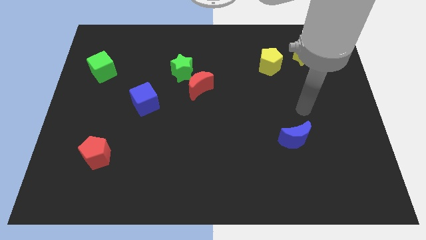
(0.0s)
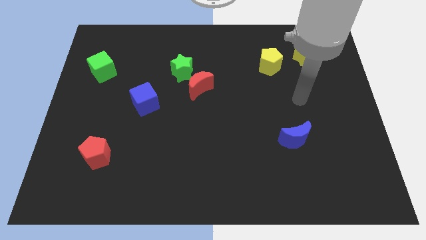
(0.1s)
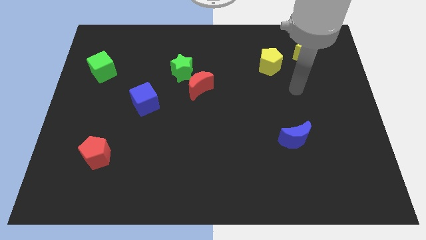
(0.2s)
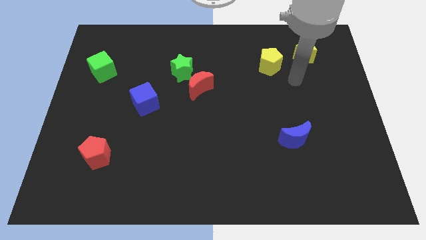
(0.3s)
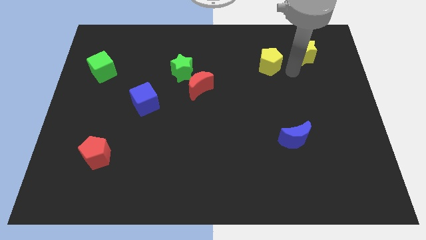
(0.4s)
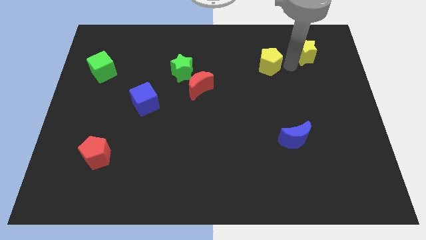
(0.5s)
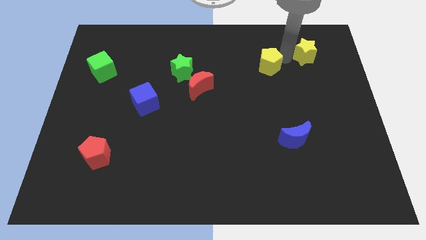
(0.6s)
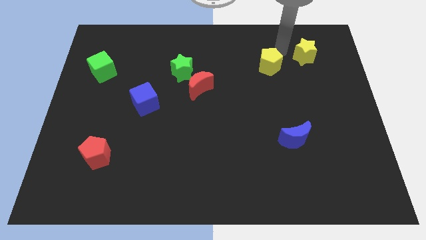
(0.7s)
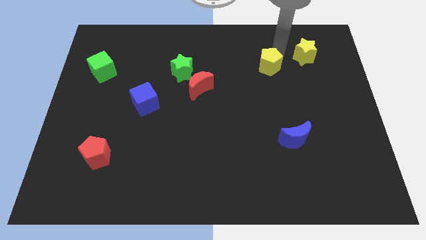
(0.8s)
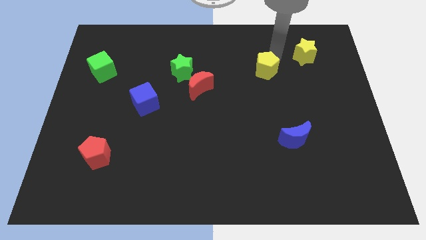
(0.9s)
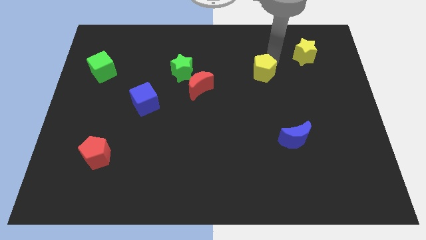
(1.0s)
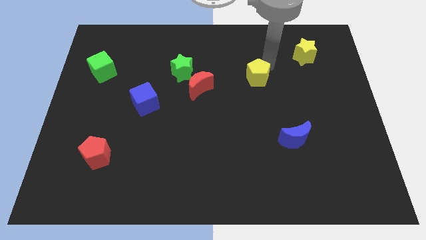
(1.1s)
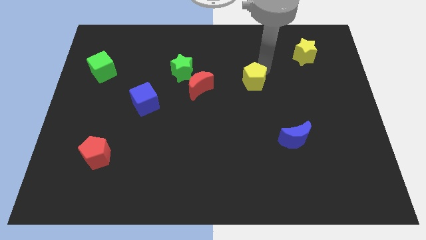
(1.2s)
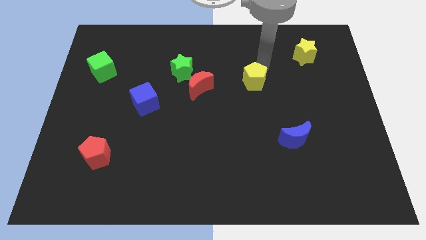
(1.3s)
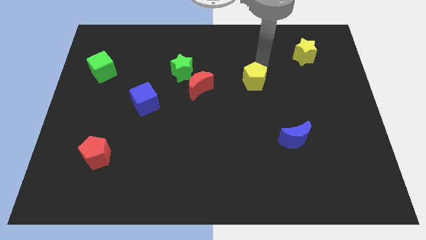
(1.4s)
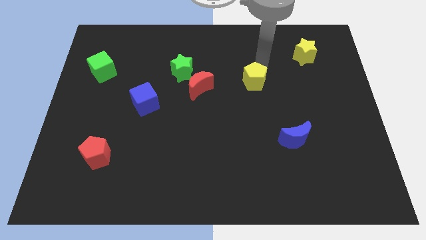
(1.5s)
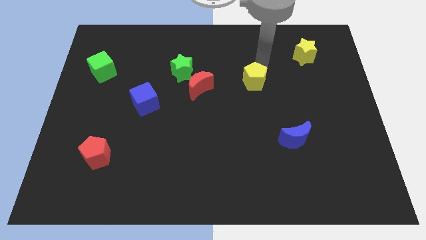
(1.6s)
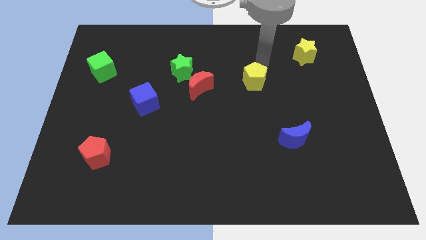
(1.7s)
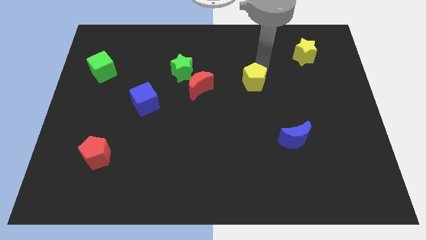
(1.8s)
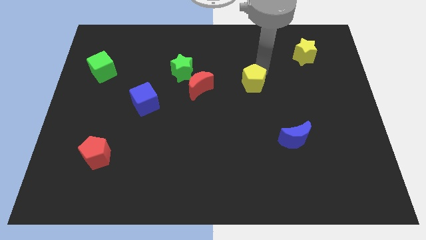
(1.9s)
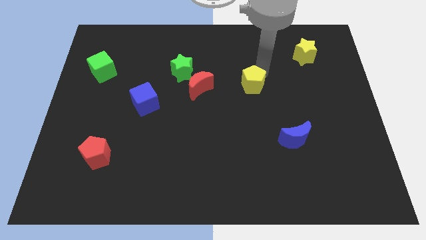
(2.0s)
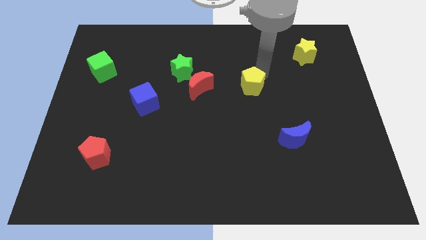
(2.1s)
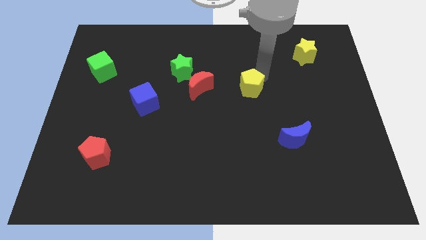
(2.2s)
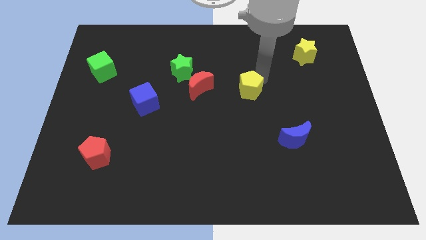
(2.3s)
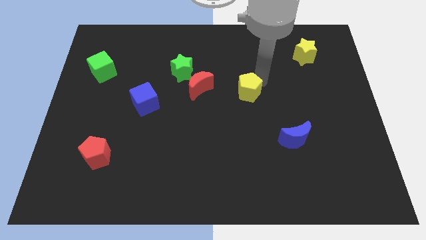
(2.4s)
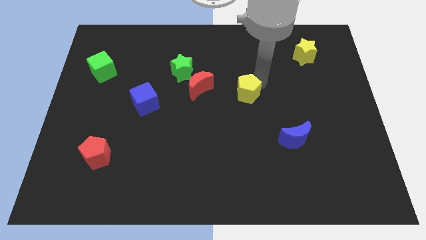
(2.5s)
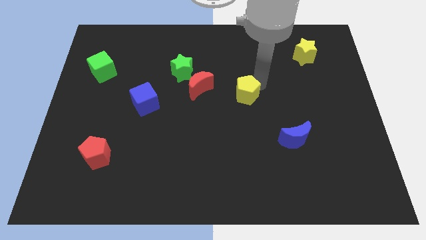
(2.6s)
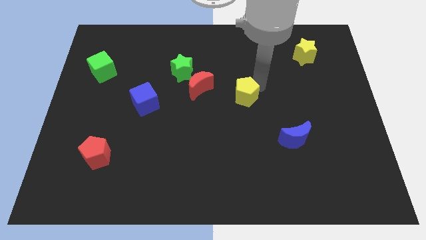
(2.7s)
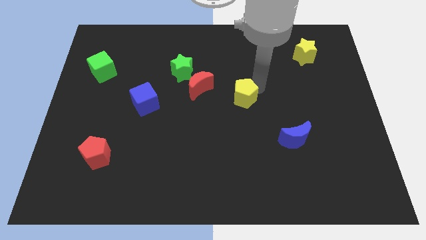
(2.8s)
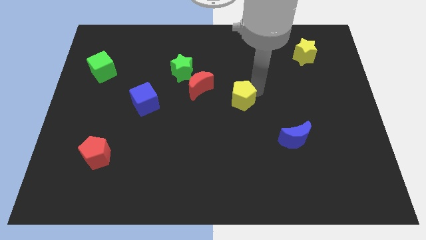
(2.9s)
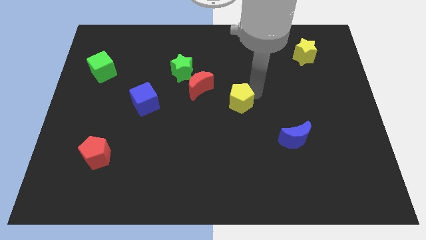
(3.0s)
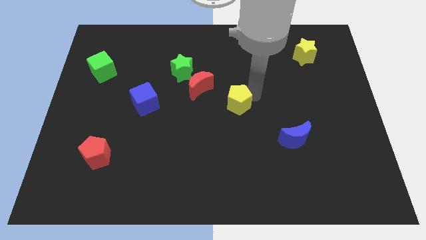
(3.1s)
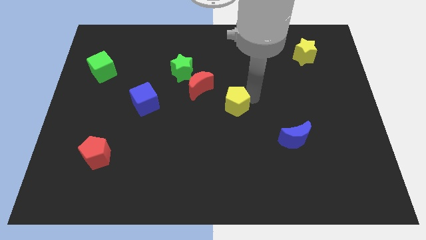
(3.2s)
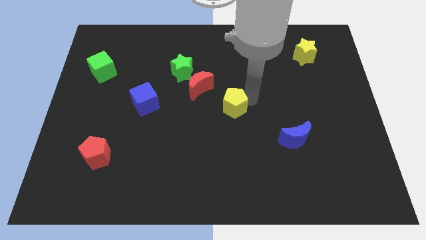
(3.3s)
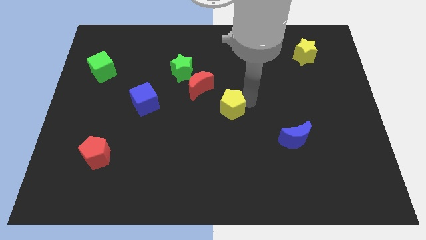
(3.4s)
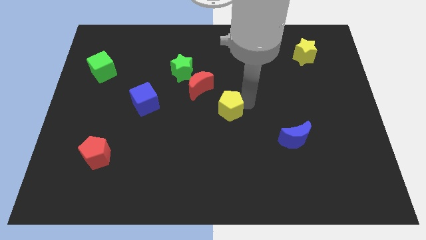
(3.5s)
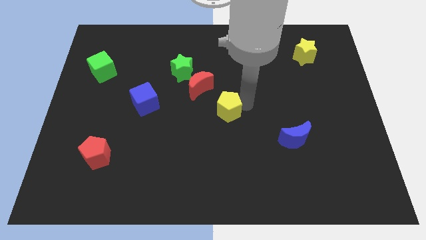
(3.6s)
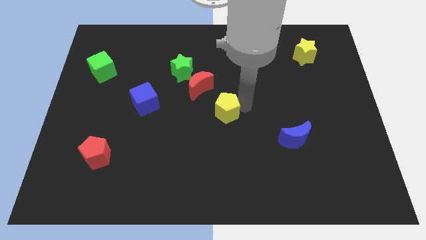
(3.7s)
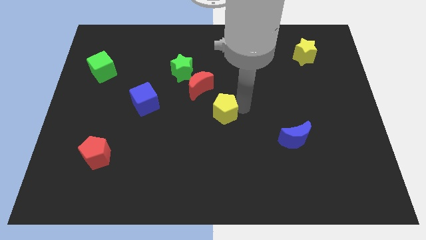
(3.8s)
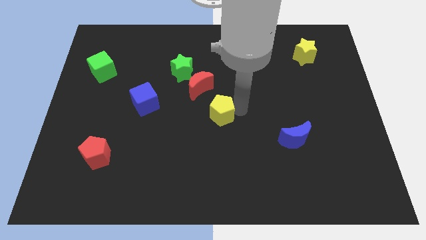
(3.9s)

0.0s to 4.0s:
push the yellow pentagon down and left diagonally

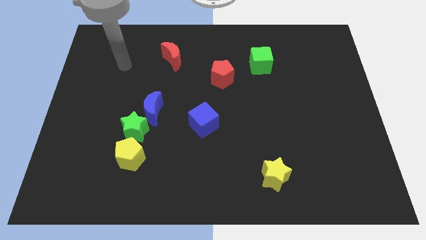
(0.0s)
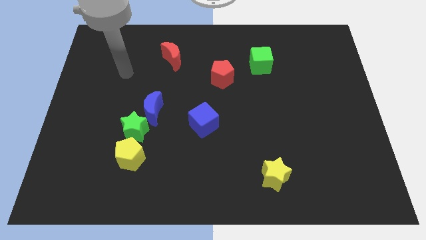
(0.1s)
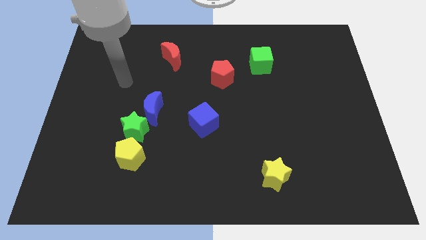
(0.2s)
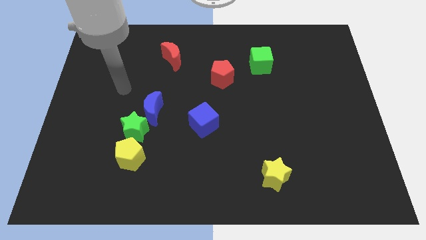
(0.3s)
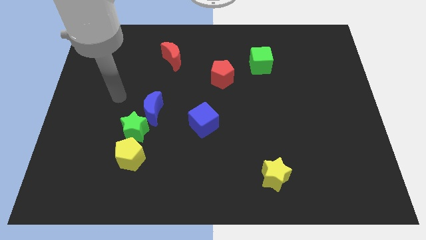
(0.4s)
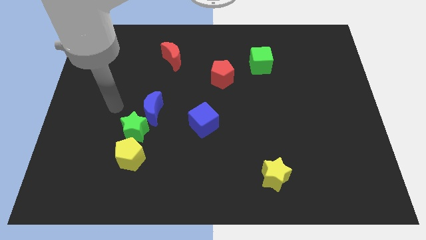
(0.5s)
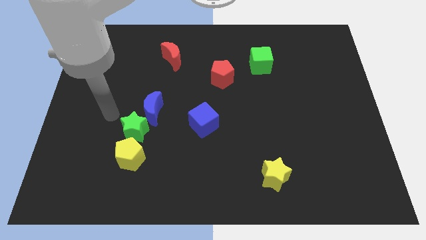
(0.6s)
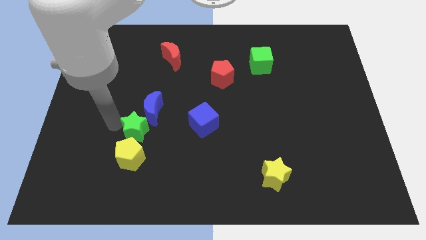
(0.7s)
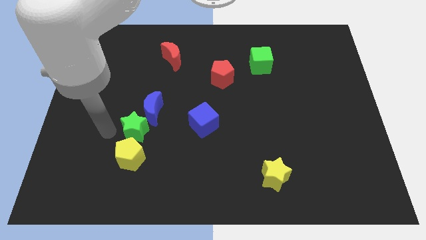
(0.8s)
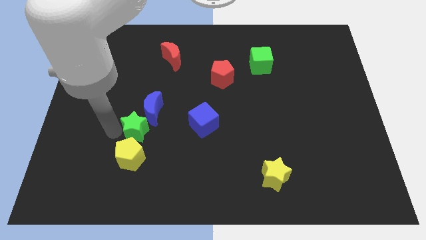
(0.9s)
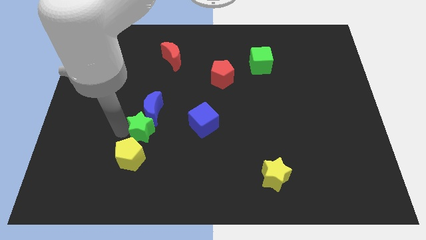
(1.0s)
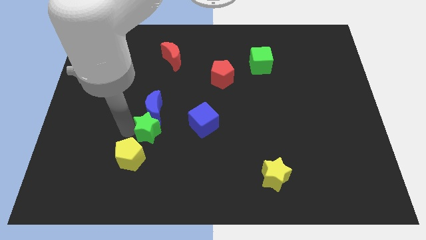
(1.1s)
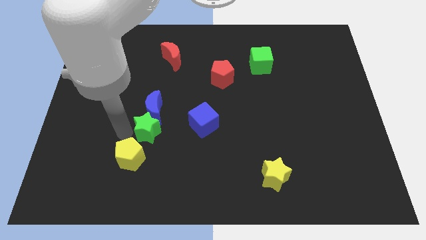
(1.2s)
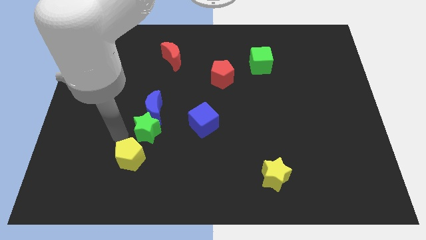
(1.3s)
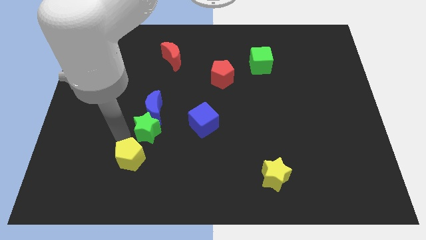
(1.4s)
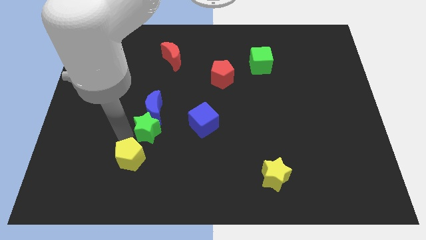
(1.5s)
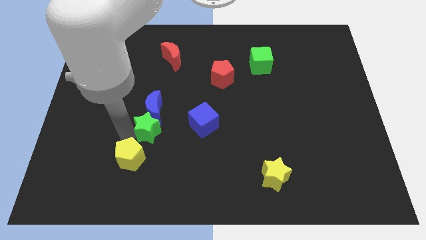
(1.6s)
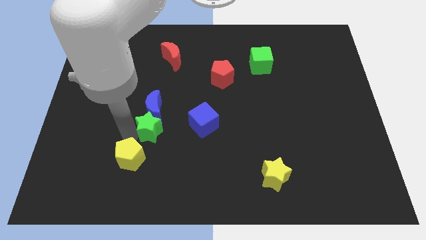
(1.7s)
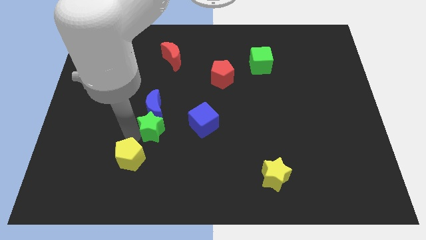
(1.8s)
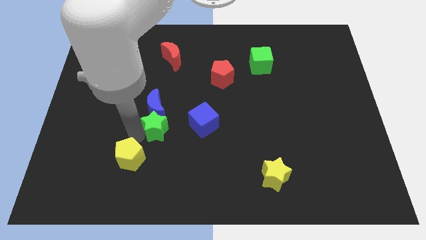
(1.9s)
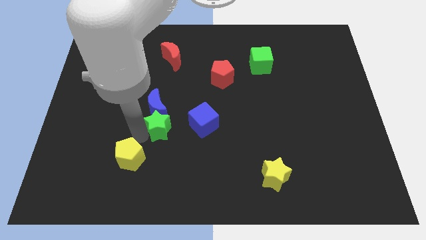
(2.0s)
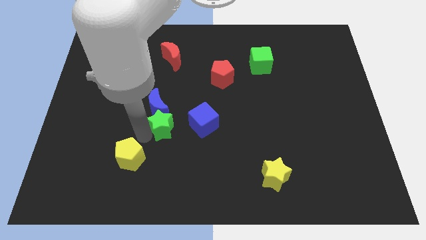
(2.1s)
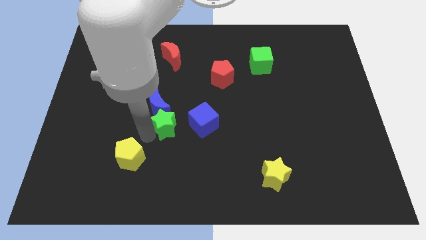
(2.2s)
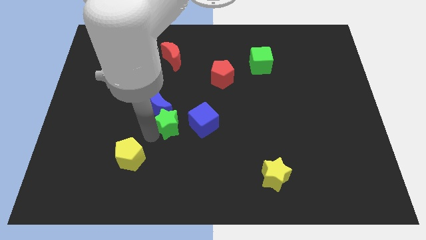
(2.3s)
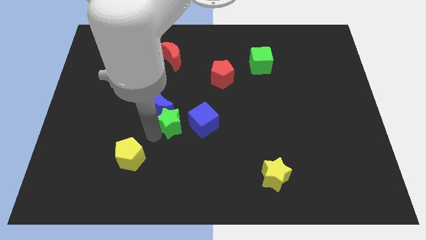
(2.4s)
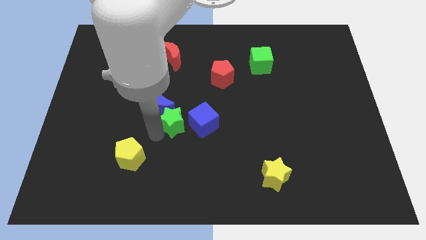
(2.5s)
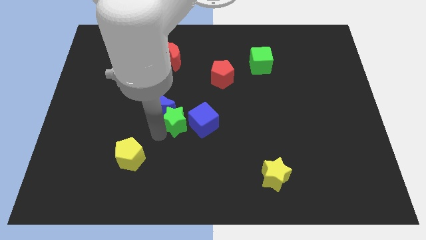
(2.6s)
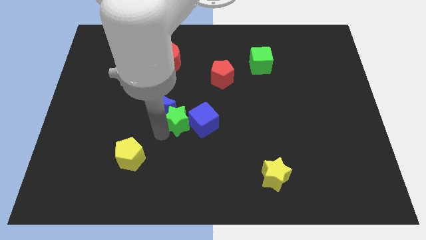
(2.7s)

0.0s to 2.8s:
slide the green star a little bit upwards and to the right diagonally

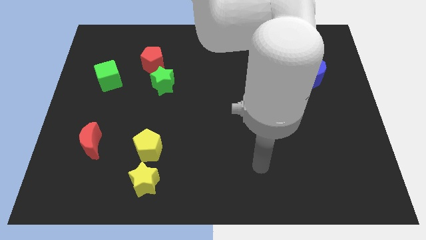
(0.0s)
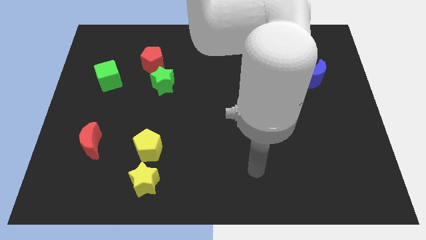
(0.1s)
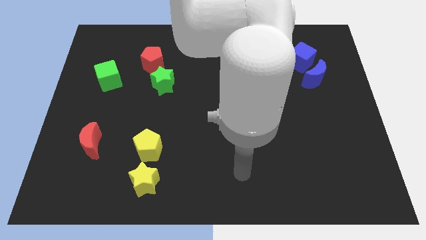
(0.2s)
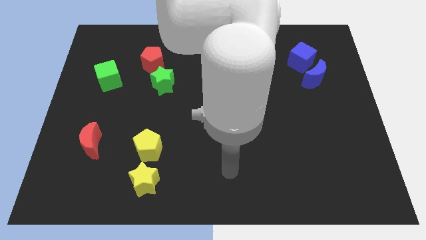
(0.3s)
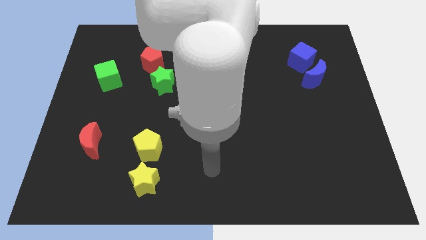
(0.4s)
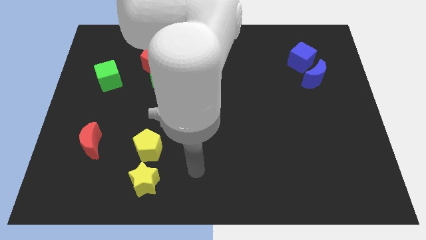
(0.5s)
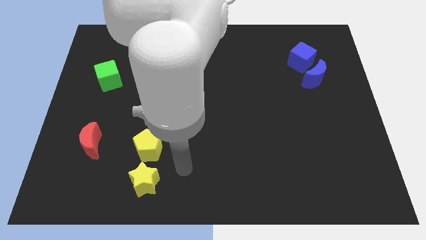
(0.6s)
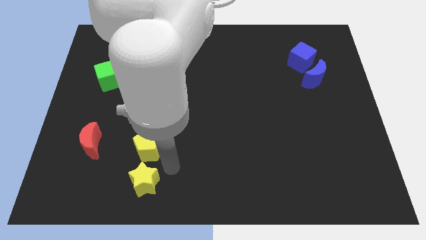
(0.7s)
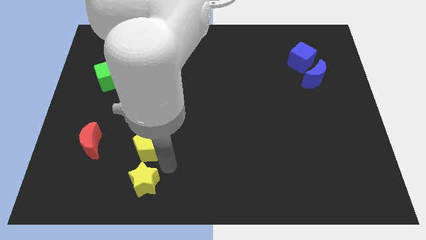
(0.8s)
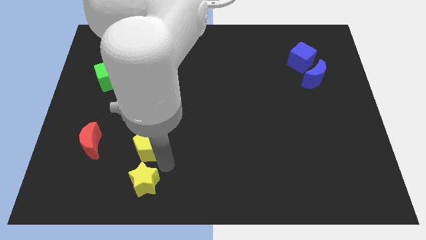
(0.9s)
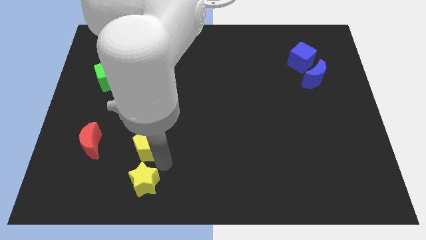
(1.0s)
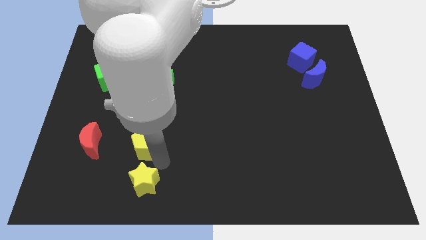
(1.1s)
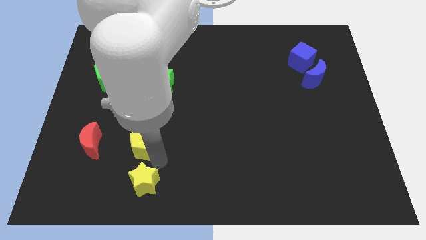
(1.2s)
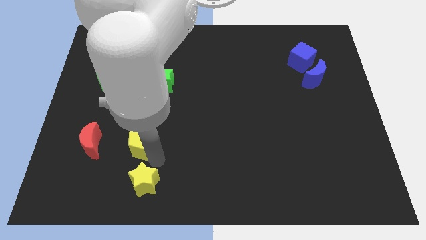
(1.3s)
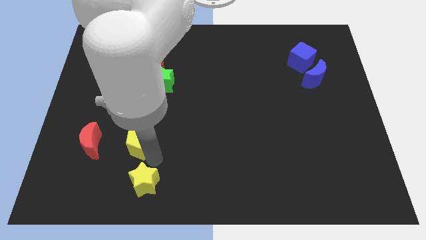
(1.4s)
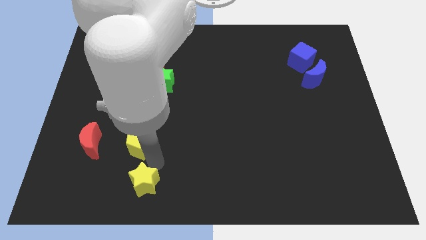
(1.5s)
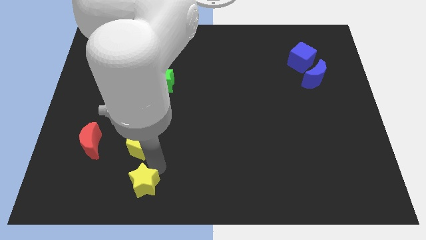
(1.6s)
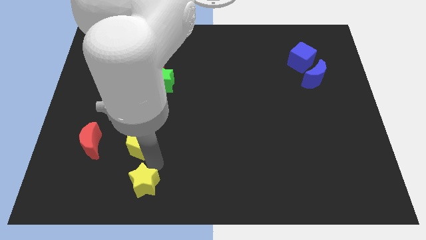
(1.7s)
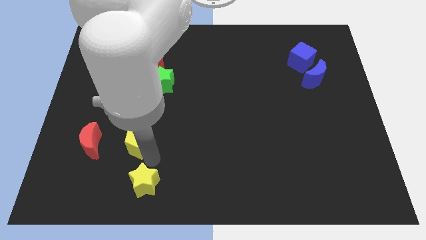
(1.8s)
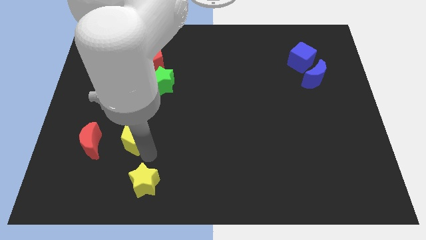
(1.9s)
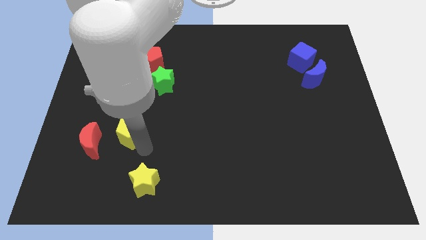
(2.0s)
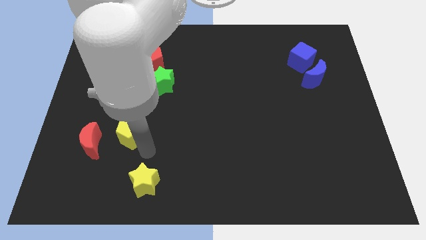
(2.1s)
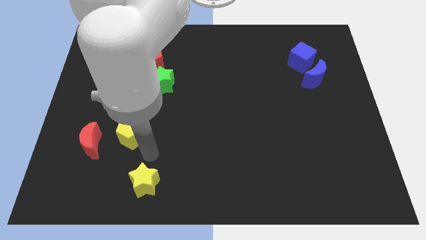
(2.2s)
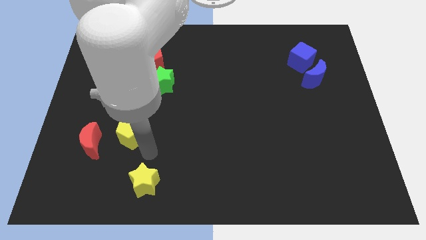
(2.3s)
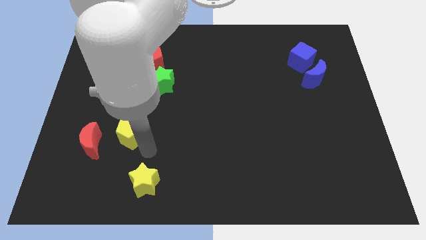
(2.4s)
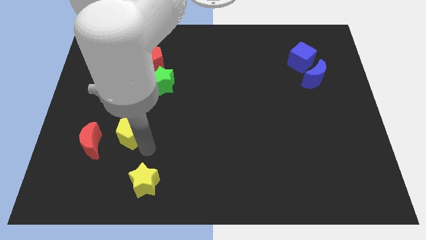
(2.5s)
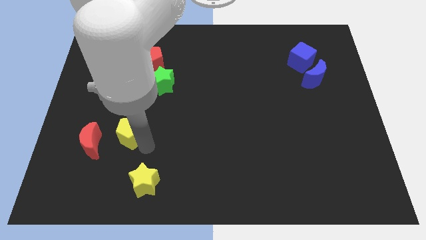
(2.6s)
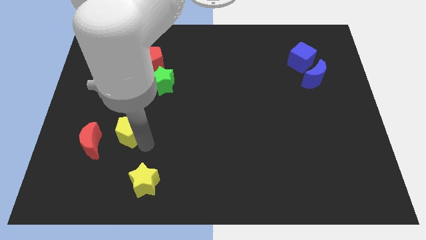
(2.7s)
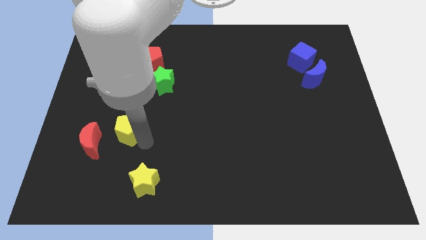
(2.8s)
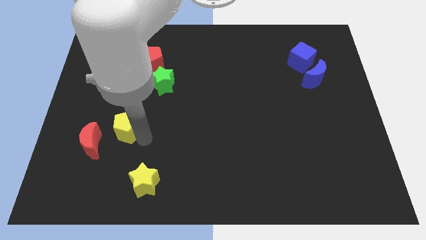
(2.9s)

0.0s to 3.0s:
slide the yellow pentagon upwards and to the left a little
